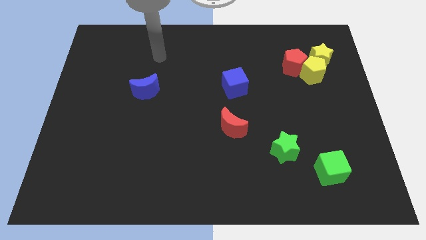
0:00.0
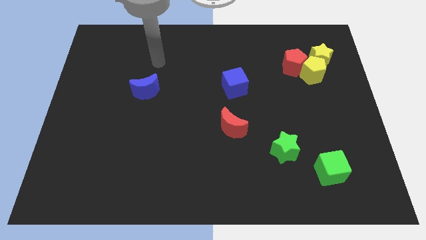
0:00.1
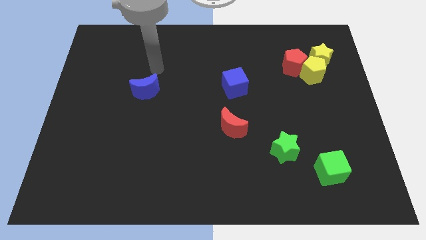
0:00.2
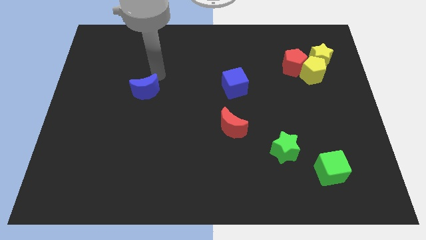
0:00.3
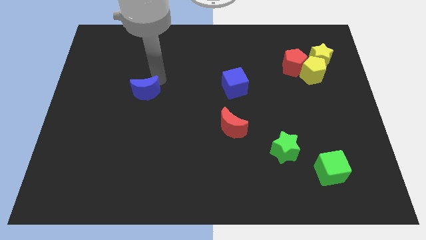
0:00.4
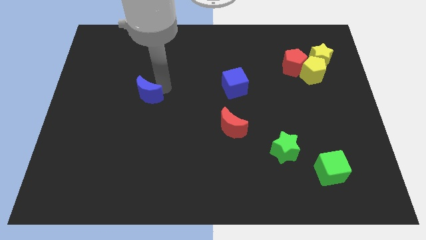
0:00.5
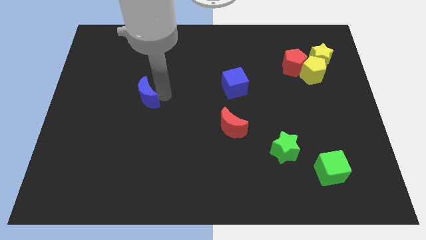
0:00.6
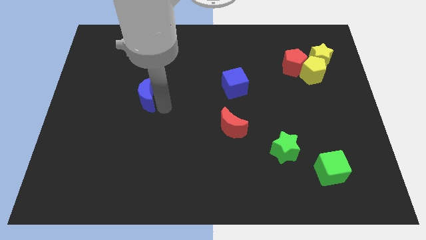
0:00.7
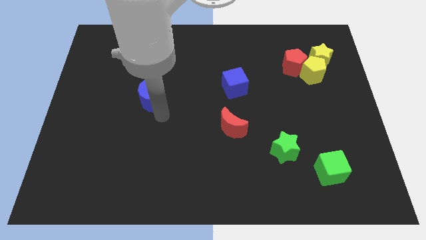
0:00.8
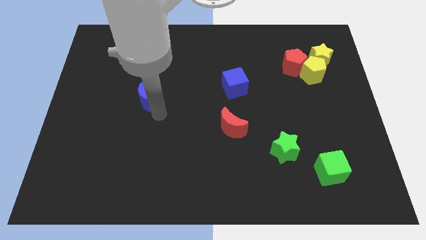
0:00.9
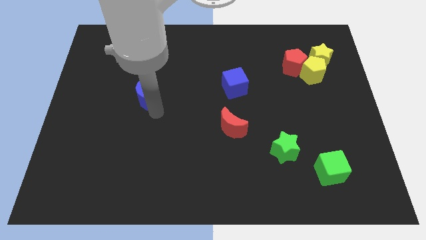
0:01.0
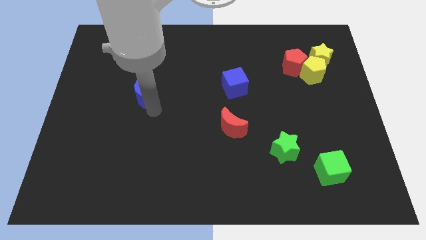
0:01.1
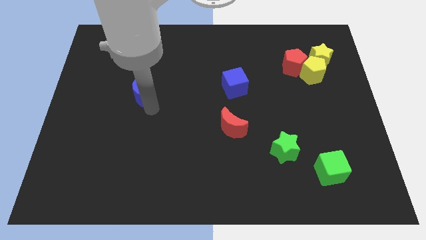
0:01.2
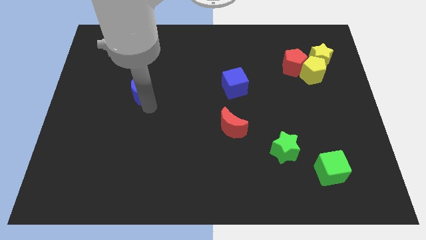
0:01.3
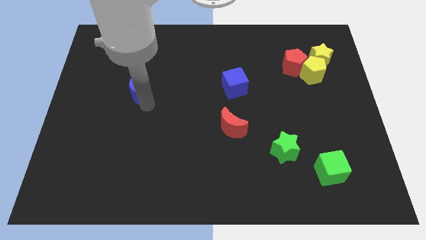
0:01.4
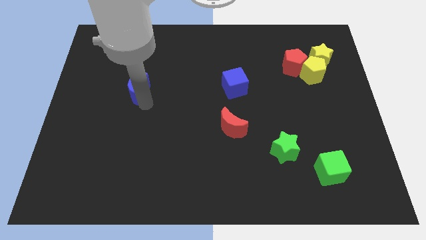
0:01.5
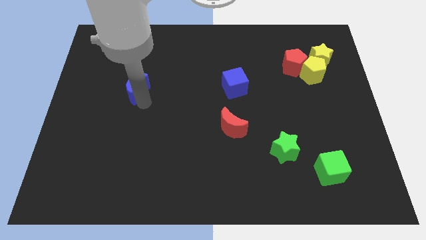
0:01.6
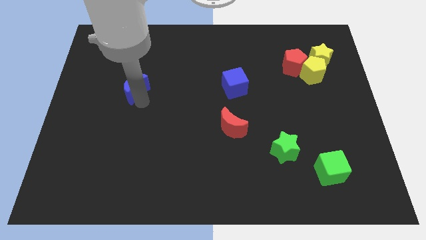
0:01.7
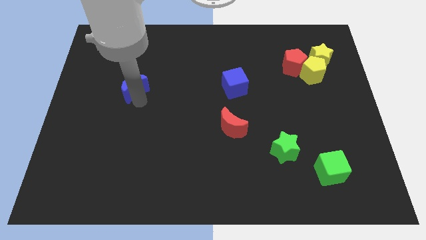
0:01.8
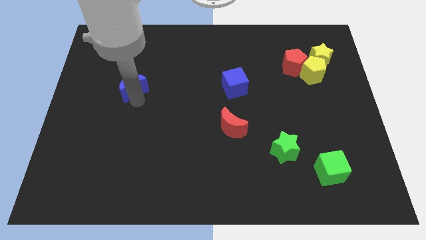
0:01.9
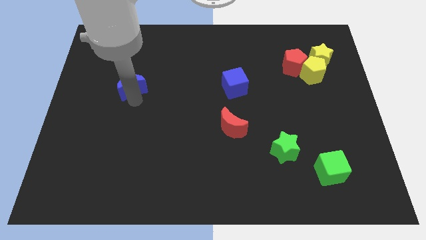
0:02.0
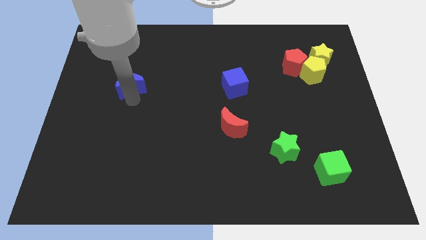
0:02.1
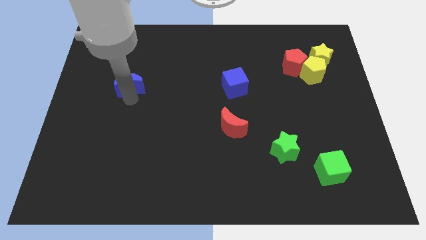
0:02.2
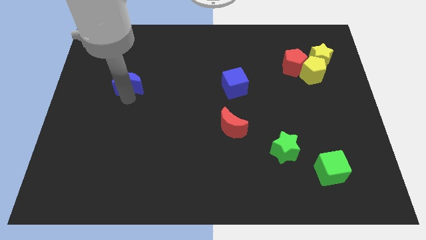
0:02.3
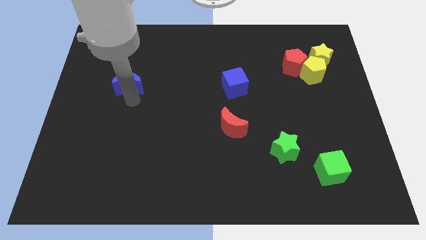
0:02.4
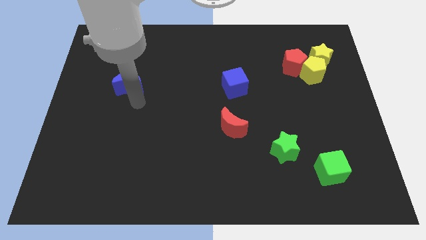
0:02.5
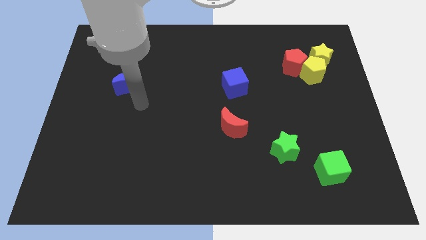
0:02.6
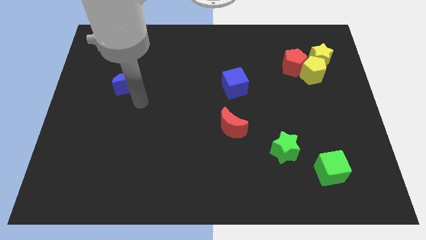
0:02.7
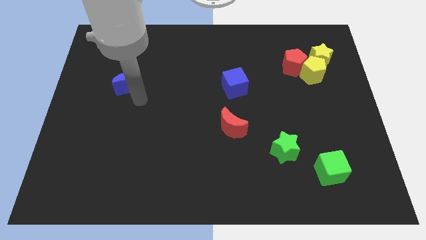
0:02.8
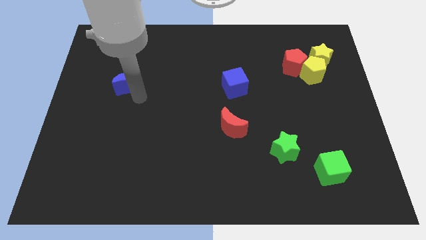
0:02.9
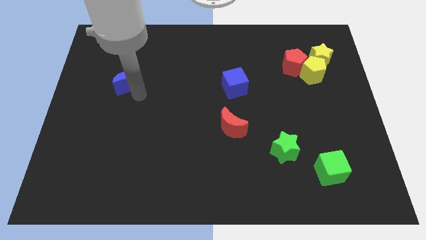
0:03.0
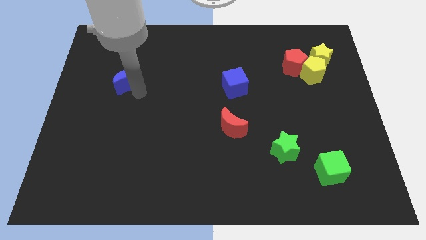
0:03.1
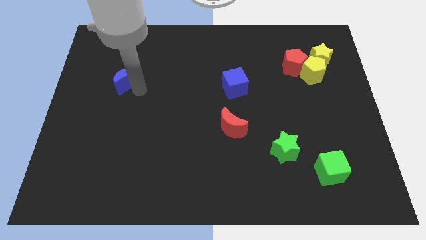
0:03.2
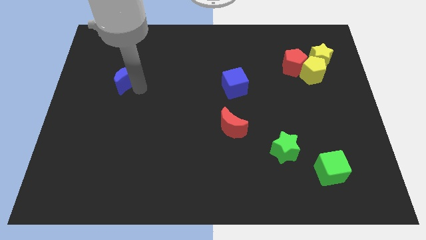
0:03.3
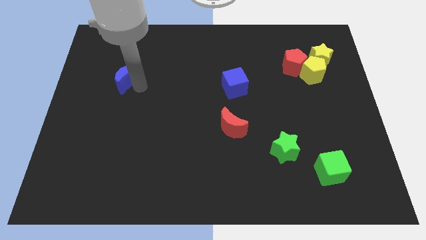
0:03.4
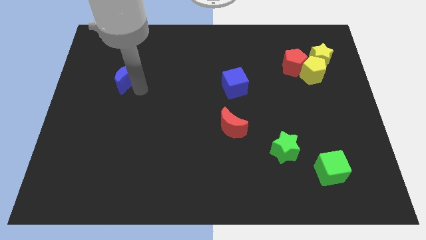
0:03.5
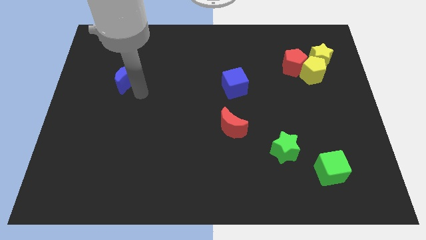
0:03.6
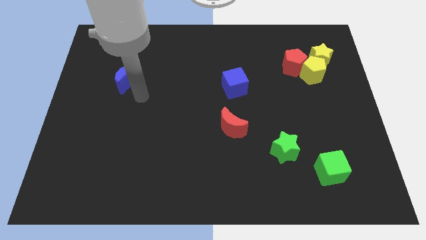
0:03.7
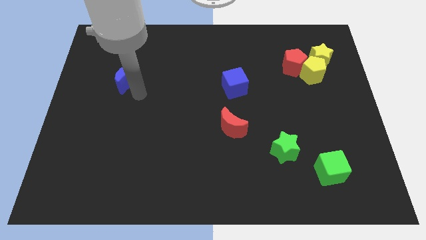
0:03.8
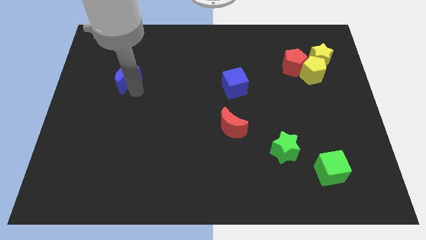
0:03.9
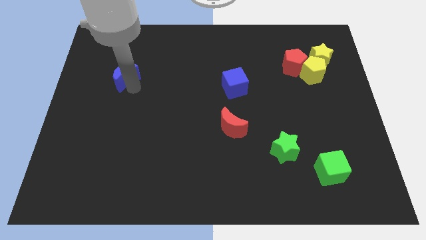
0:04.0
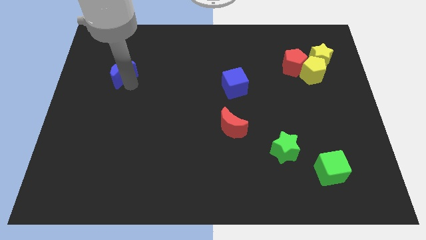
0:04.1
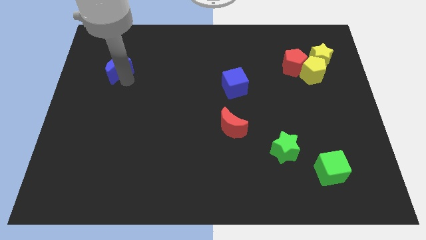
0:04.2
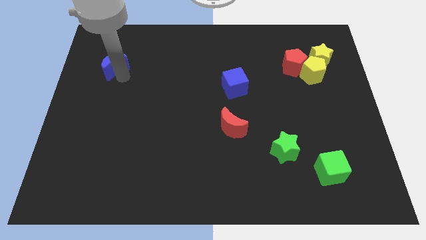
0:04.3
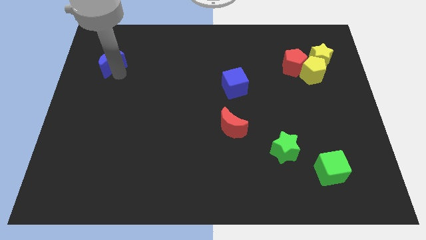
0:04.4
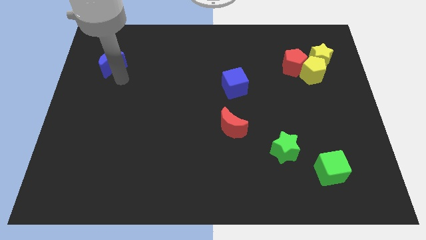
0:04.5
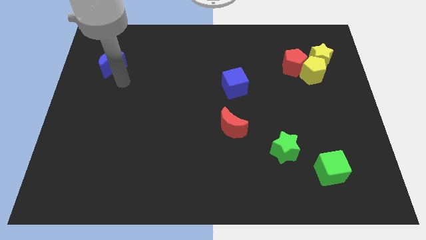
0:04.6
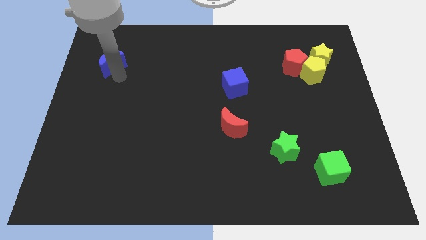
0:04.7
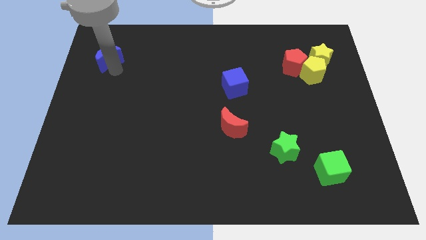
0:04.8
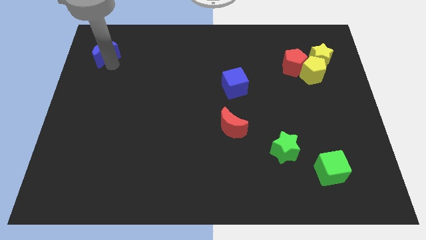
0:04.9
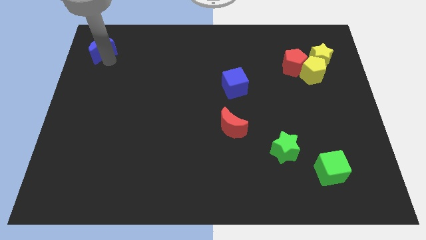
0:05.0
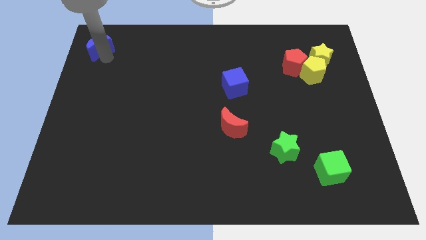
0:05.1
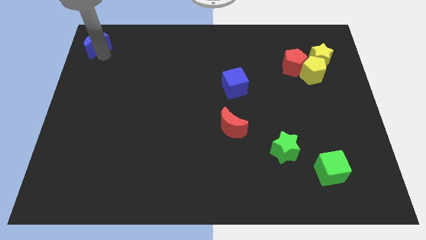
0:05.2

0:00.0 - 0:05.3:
push the blue moon to the top left corner

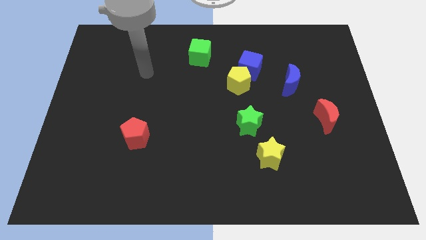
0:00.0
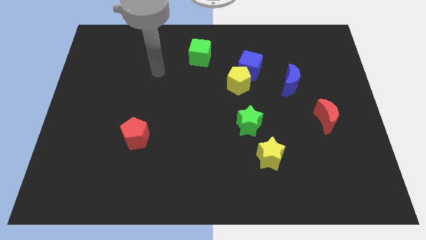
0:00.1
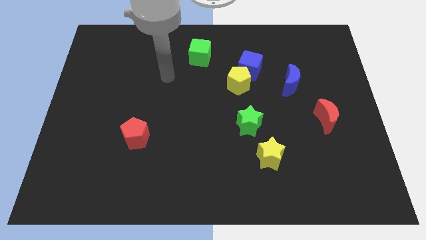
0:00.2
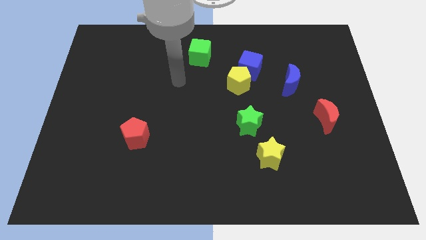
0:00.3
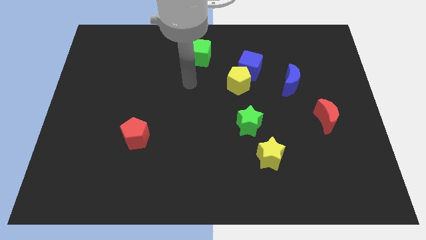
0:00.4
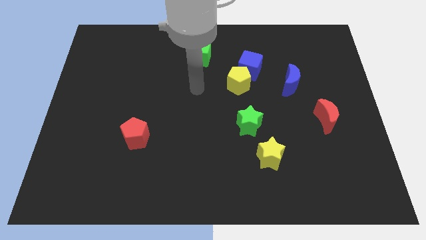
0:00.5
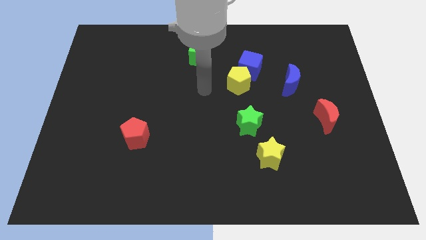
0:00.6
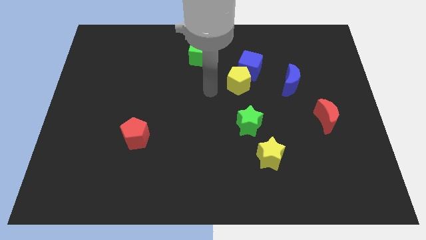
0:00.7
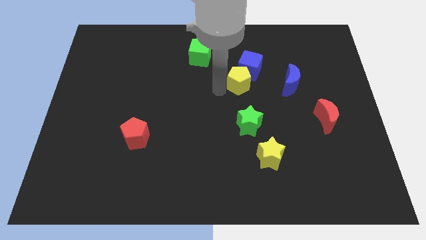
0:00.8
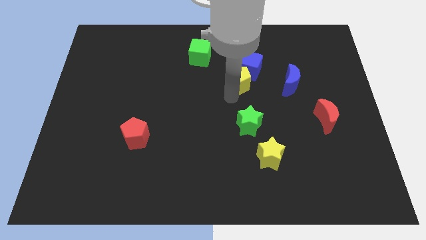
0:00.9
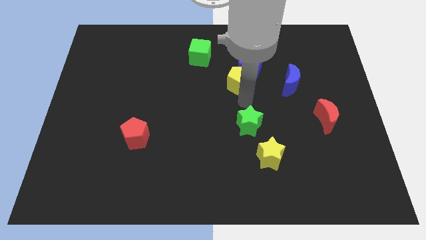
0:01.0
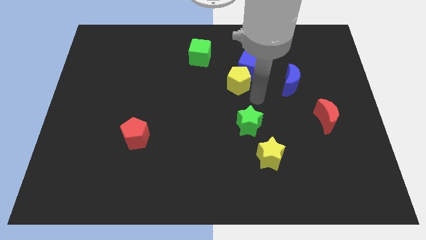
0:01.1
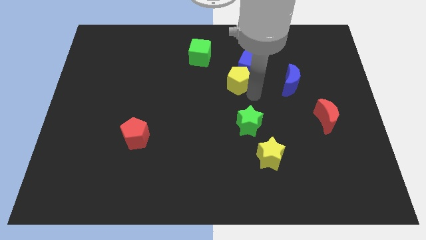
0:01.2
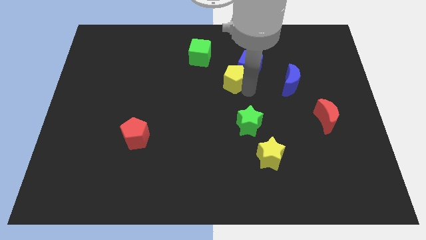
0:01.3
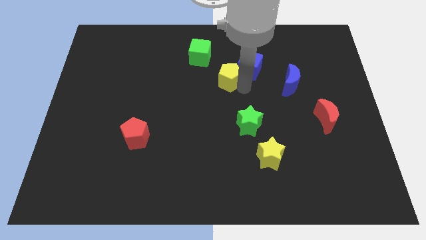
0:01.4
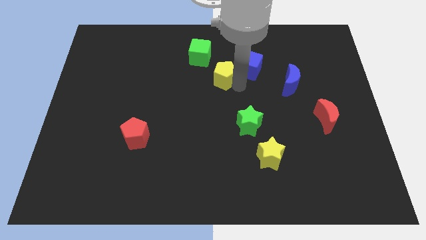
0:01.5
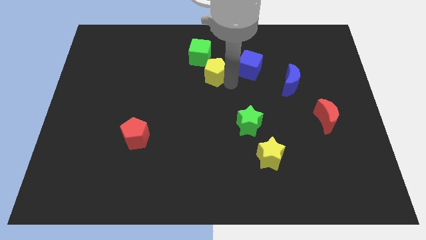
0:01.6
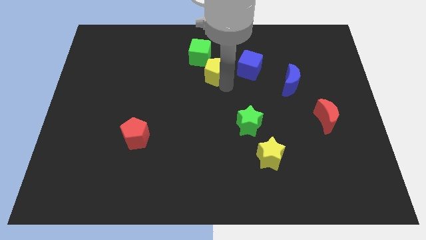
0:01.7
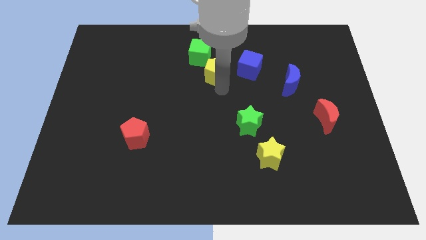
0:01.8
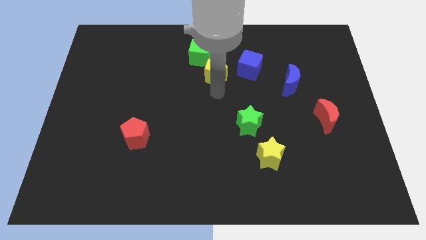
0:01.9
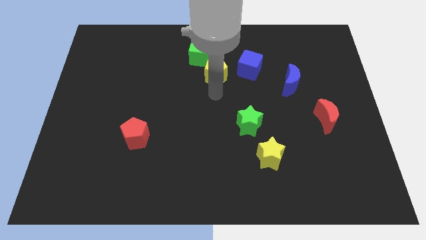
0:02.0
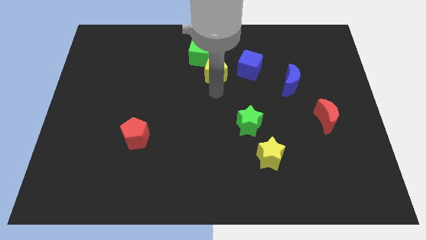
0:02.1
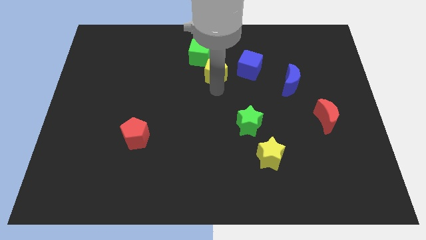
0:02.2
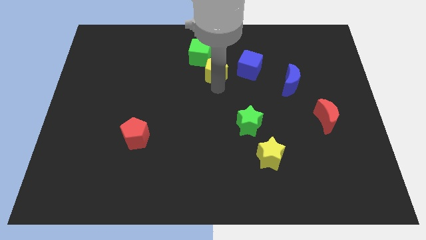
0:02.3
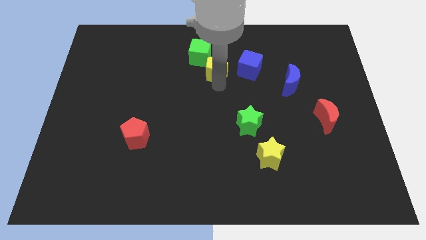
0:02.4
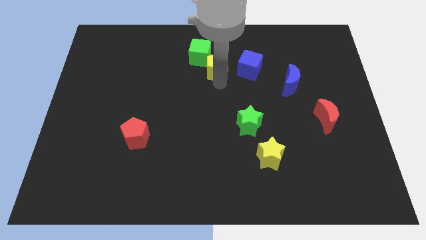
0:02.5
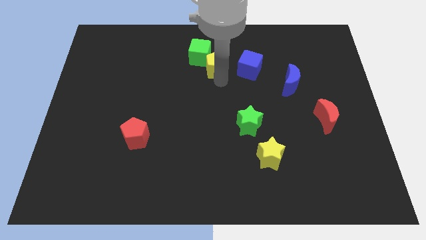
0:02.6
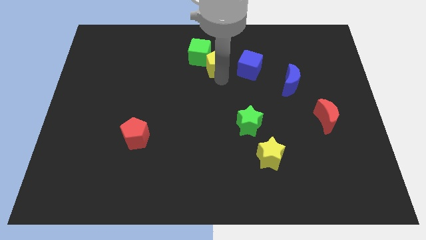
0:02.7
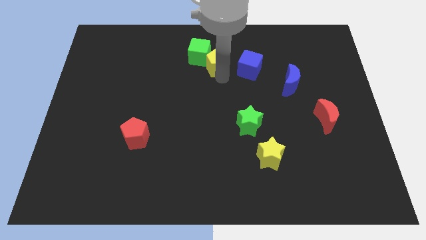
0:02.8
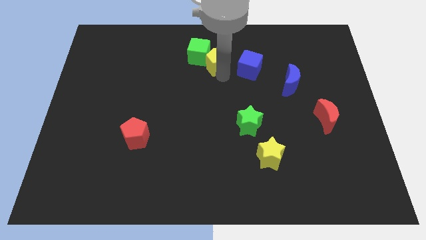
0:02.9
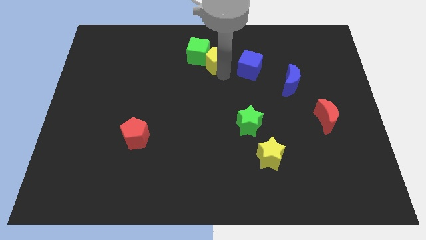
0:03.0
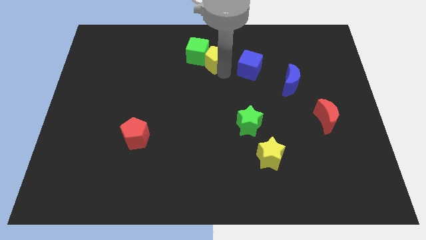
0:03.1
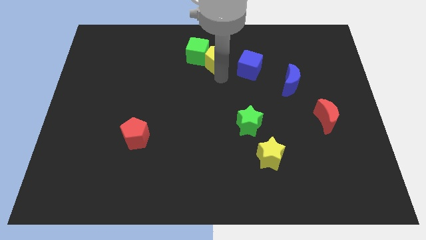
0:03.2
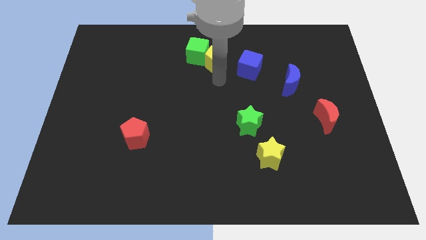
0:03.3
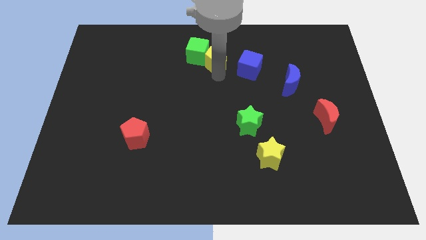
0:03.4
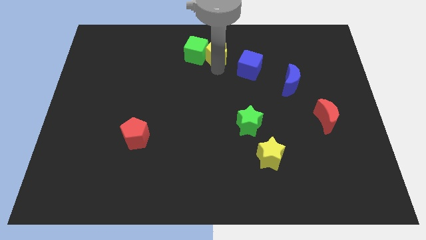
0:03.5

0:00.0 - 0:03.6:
push the yellow pentagon to the top side
